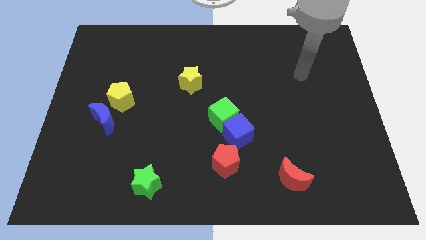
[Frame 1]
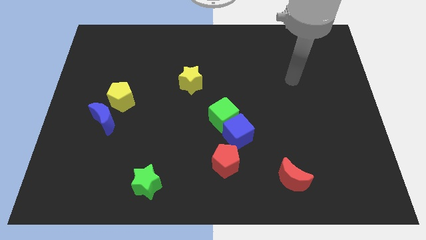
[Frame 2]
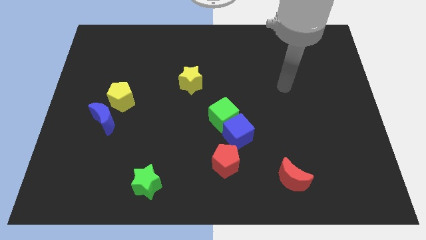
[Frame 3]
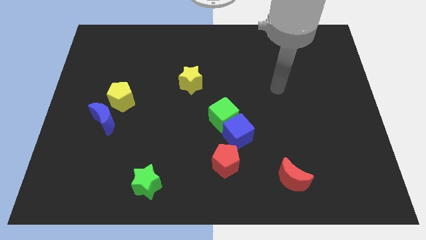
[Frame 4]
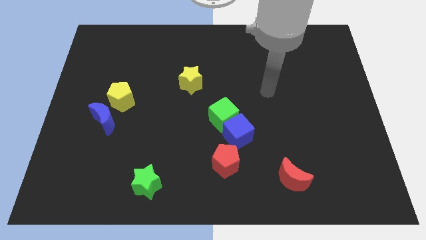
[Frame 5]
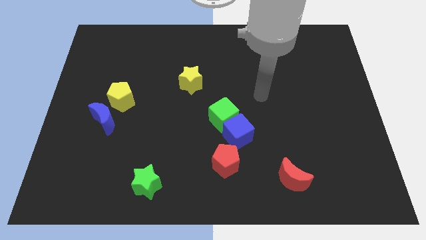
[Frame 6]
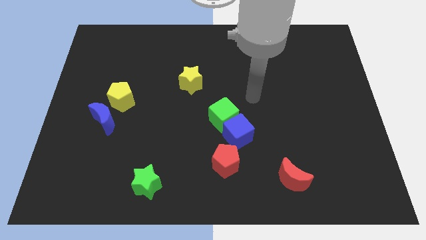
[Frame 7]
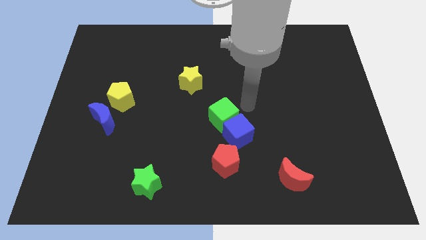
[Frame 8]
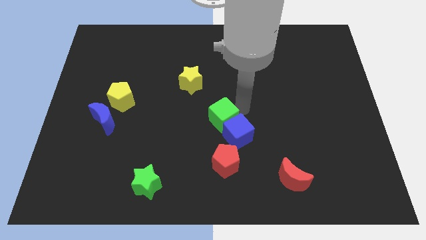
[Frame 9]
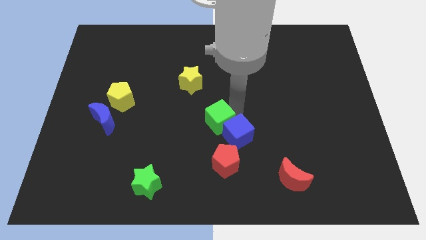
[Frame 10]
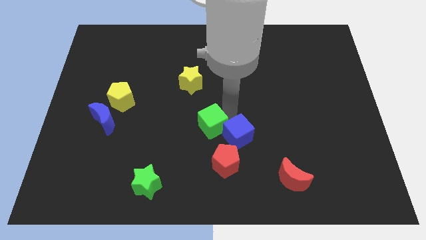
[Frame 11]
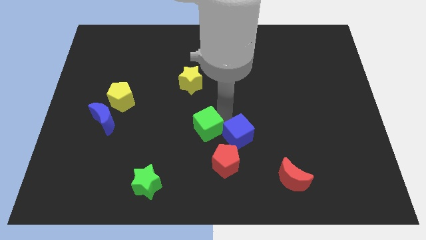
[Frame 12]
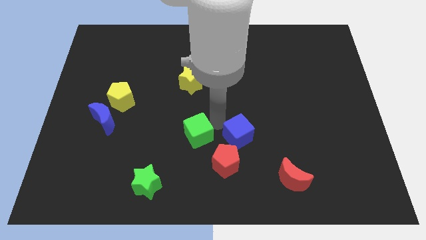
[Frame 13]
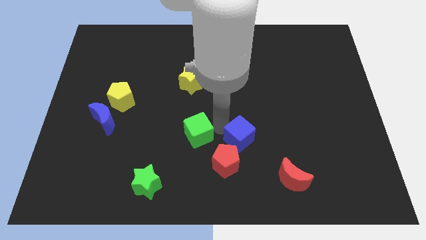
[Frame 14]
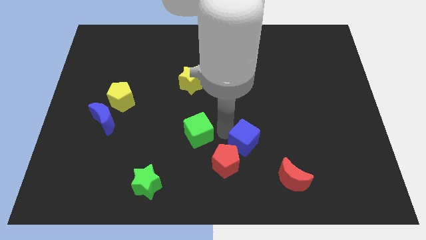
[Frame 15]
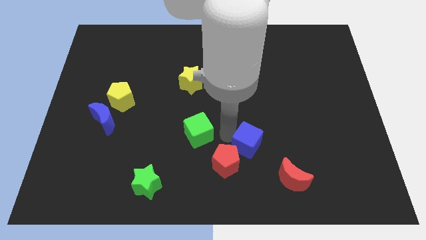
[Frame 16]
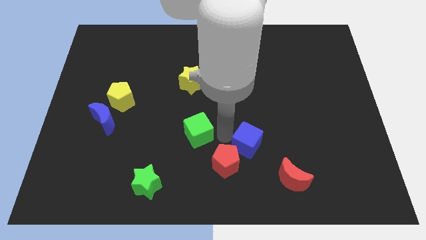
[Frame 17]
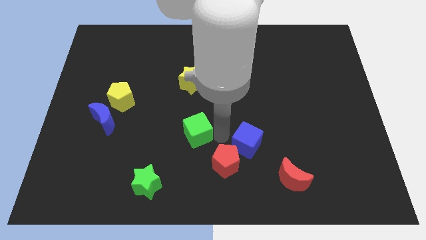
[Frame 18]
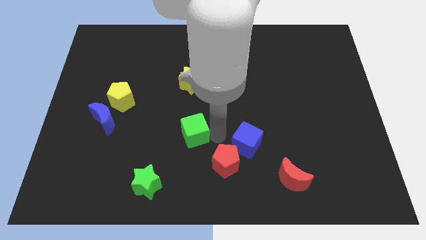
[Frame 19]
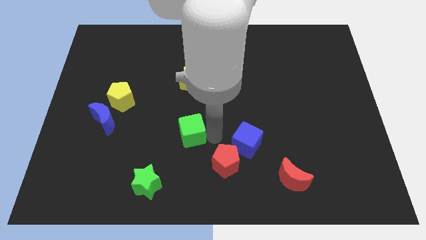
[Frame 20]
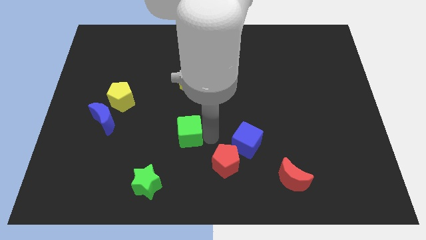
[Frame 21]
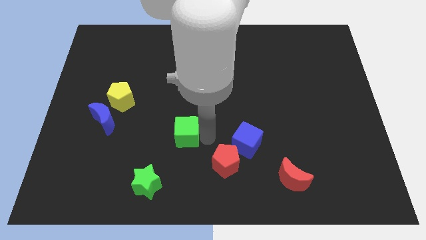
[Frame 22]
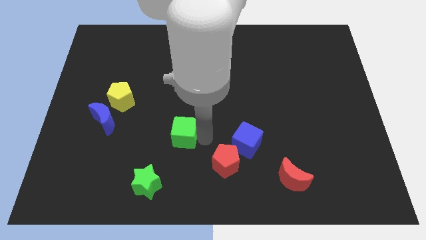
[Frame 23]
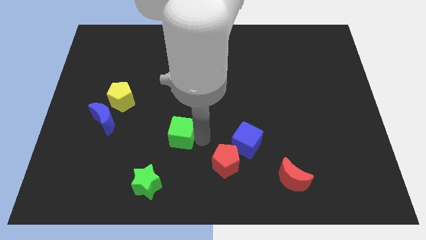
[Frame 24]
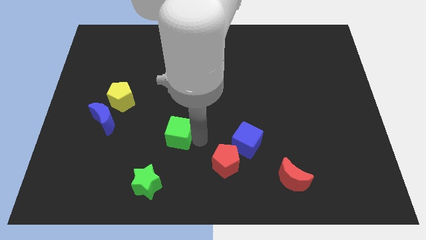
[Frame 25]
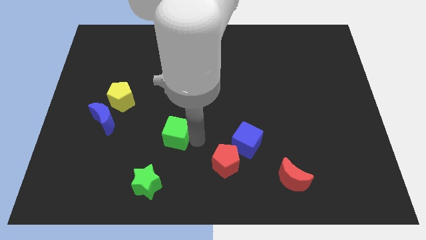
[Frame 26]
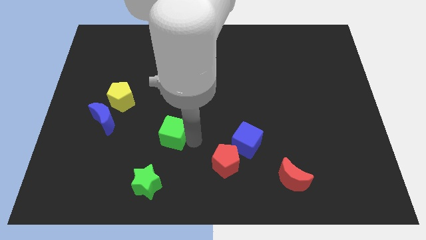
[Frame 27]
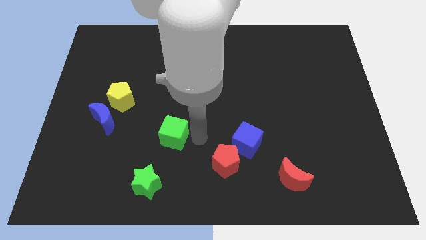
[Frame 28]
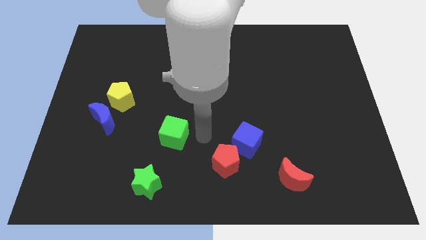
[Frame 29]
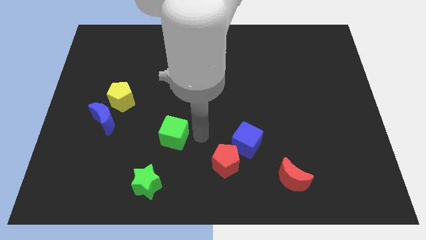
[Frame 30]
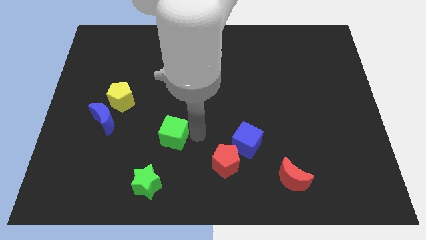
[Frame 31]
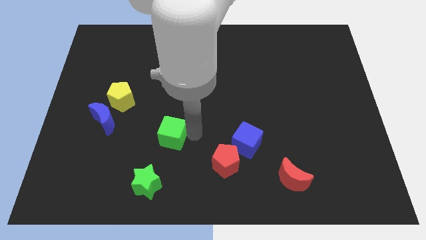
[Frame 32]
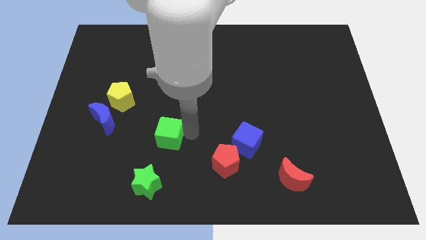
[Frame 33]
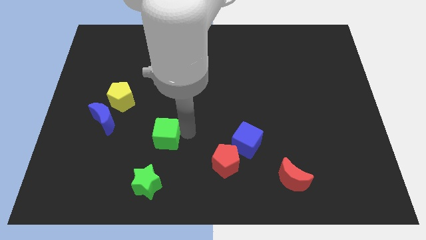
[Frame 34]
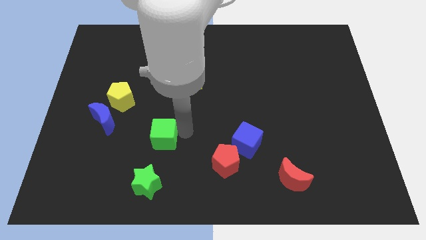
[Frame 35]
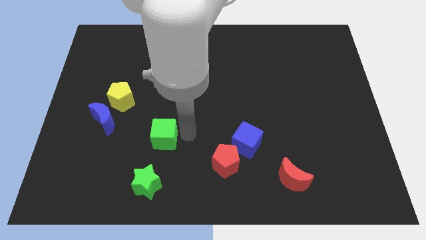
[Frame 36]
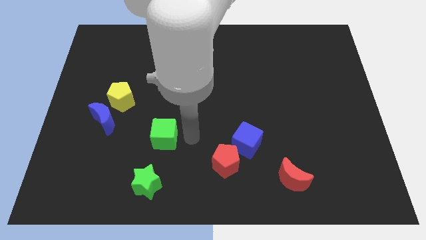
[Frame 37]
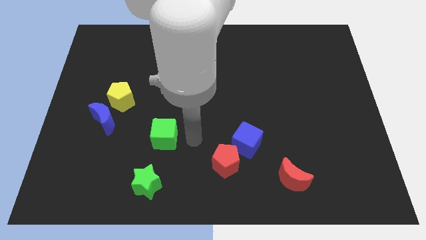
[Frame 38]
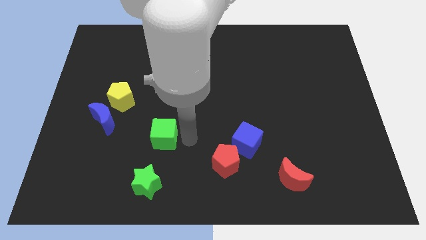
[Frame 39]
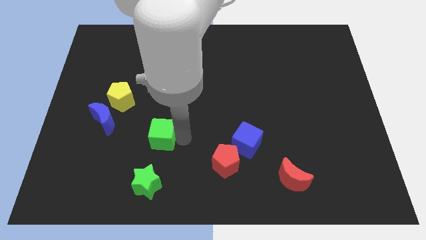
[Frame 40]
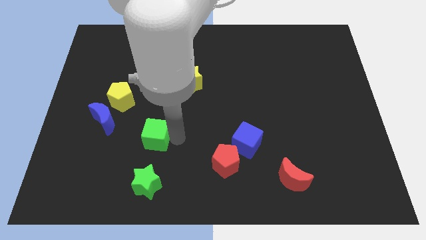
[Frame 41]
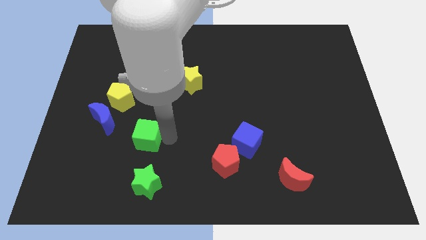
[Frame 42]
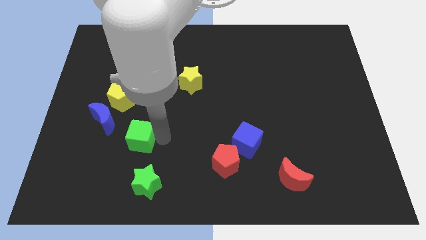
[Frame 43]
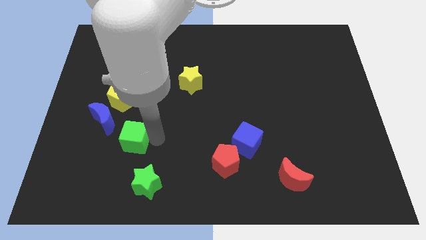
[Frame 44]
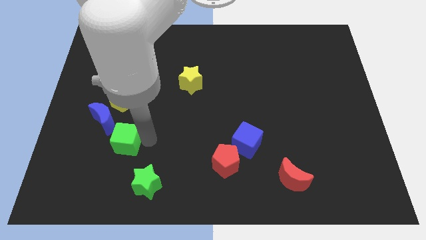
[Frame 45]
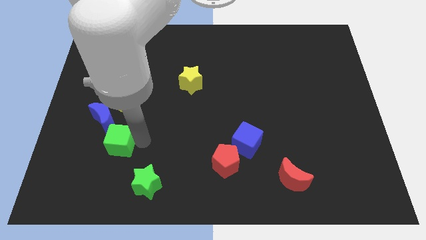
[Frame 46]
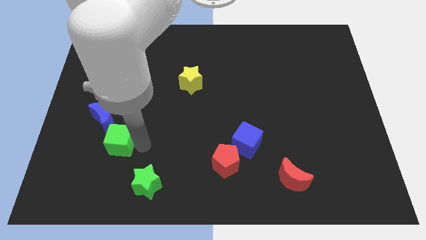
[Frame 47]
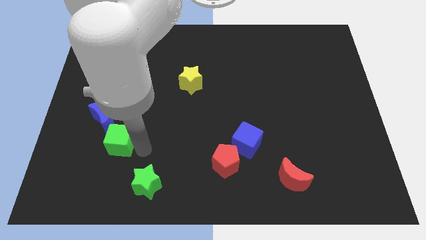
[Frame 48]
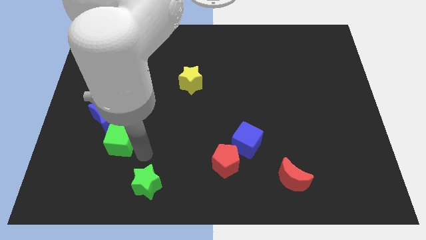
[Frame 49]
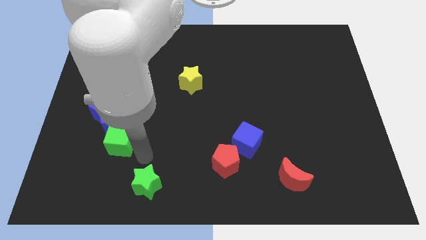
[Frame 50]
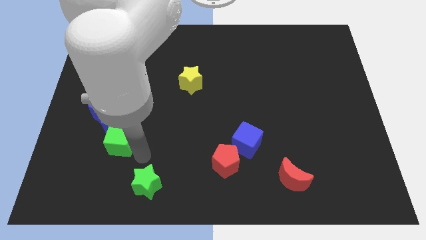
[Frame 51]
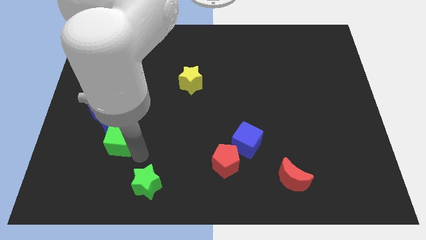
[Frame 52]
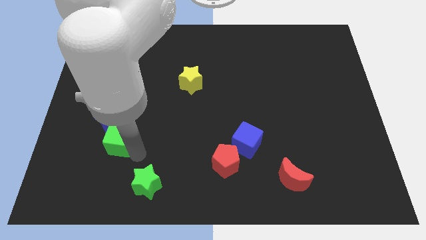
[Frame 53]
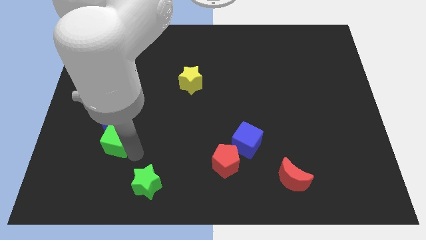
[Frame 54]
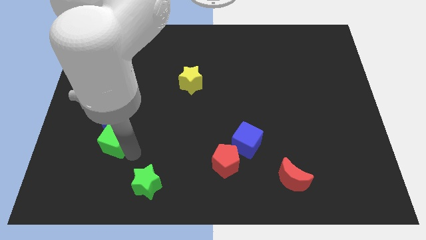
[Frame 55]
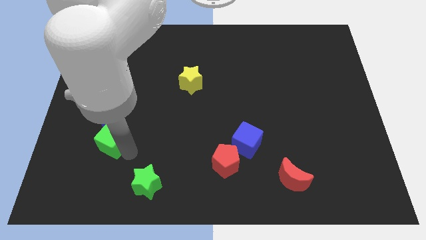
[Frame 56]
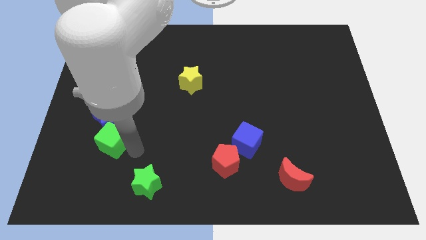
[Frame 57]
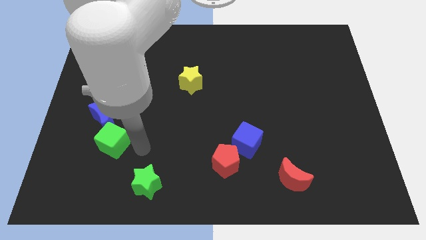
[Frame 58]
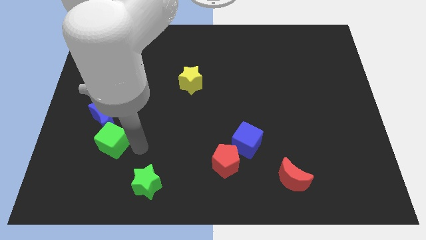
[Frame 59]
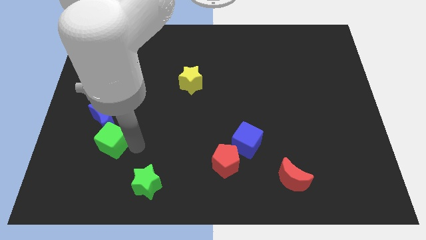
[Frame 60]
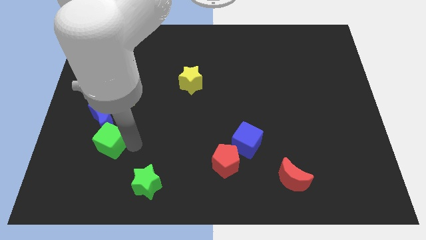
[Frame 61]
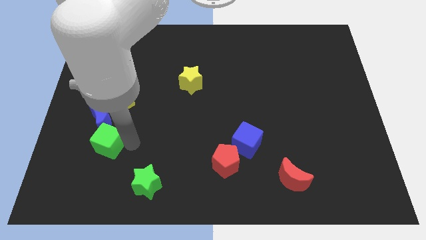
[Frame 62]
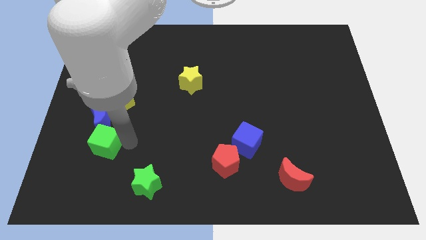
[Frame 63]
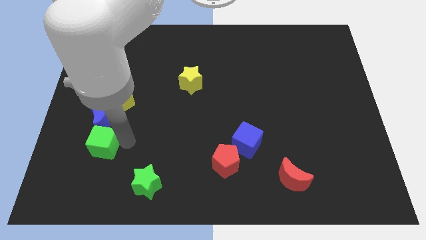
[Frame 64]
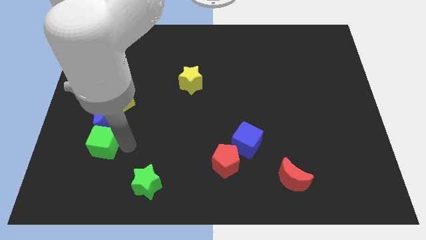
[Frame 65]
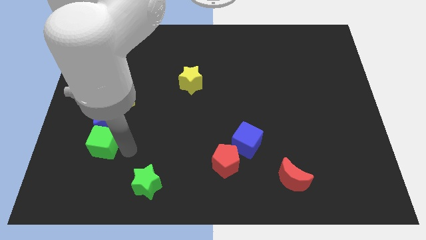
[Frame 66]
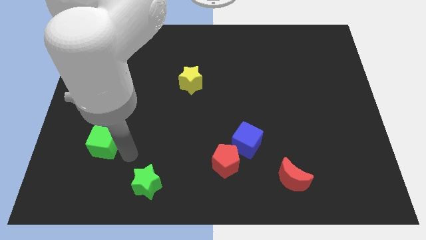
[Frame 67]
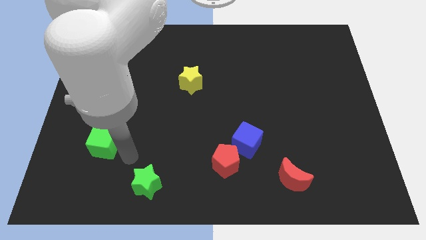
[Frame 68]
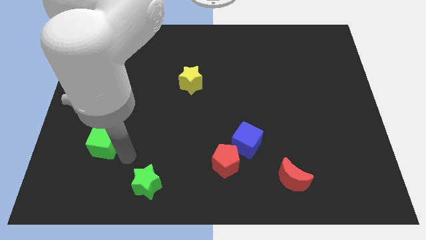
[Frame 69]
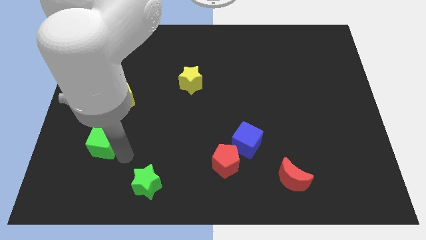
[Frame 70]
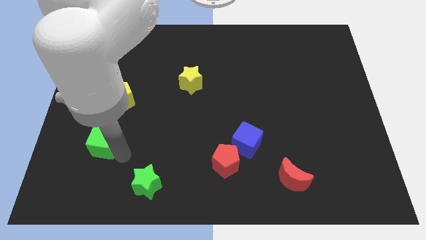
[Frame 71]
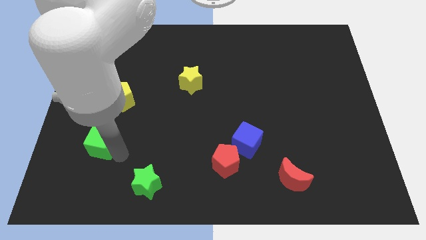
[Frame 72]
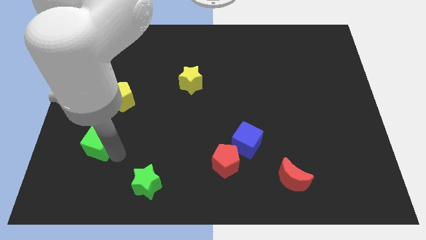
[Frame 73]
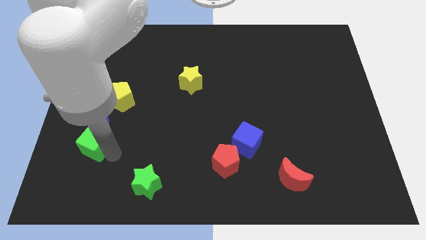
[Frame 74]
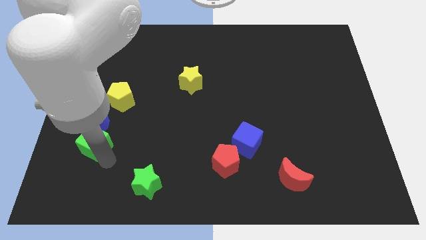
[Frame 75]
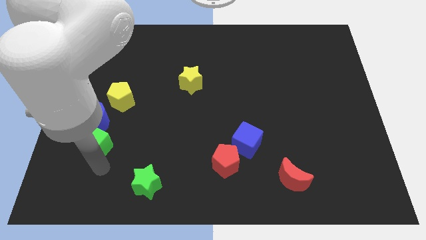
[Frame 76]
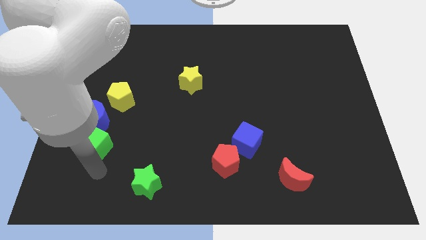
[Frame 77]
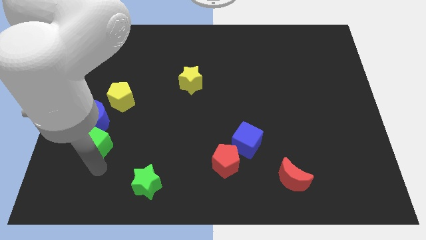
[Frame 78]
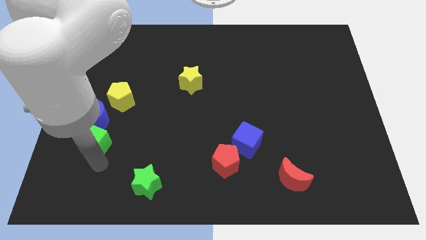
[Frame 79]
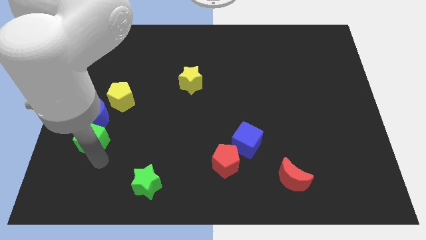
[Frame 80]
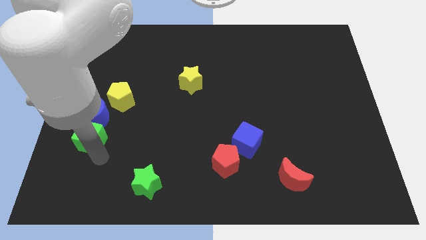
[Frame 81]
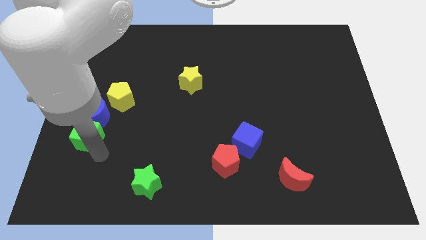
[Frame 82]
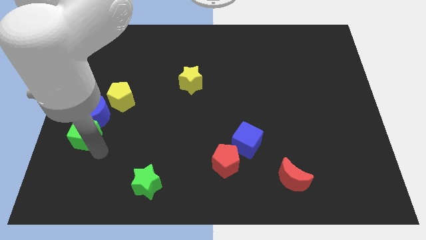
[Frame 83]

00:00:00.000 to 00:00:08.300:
push the green cube to the bottom left side of the yellow pentagon
